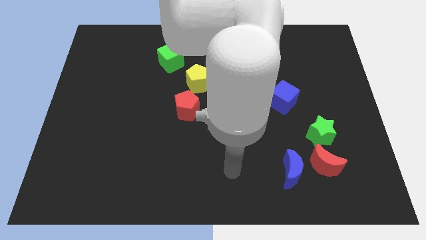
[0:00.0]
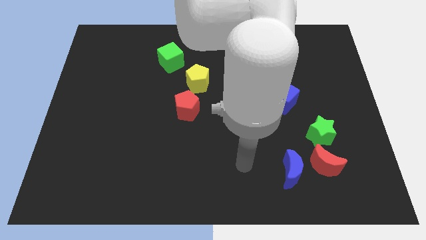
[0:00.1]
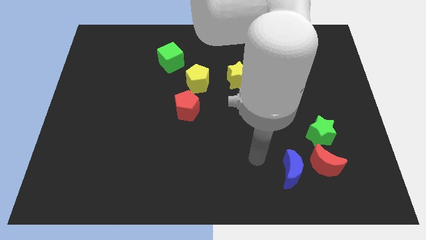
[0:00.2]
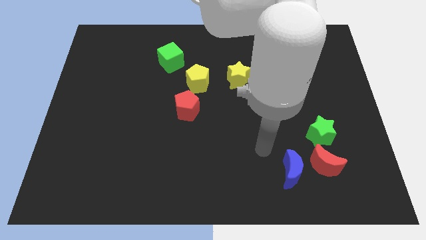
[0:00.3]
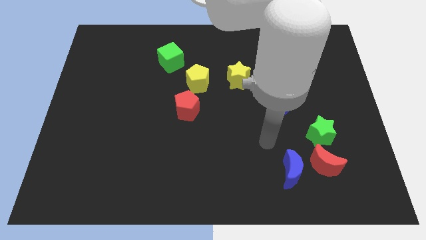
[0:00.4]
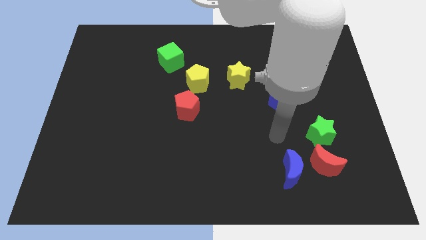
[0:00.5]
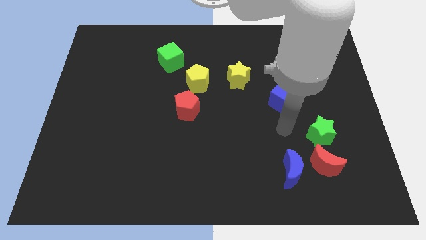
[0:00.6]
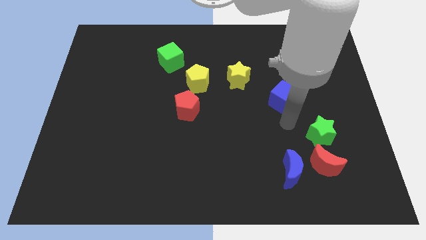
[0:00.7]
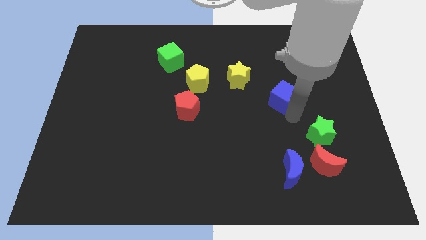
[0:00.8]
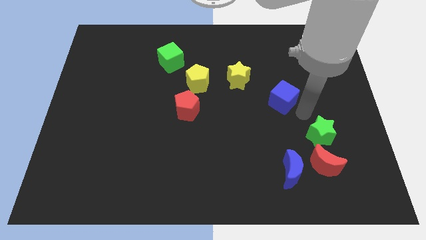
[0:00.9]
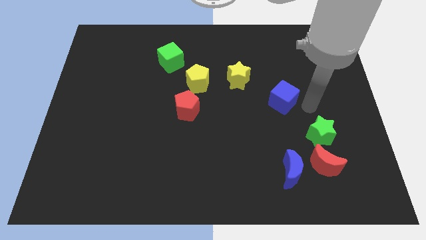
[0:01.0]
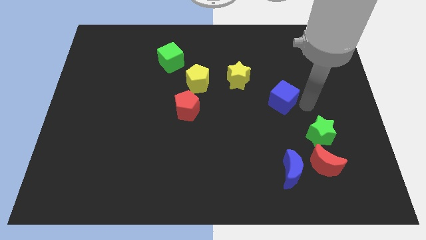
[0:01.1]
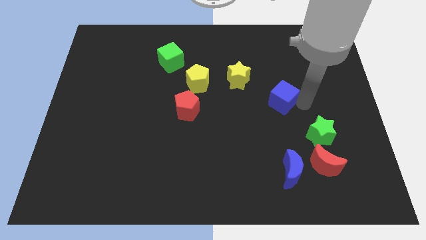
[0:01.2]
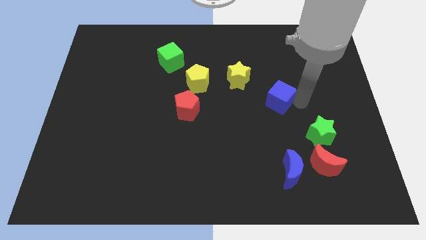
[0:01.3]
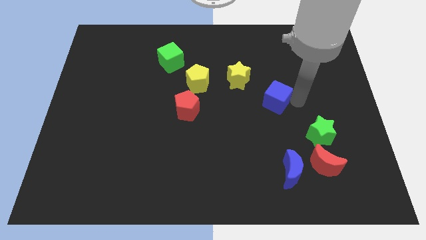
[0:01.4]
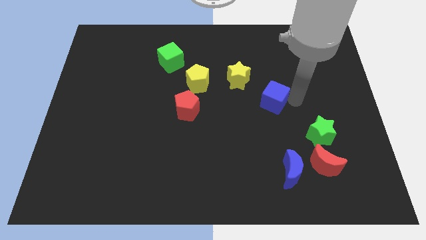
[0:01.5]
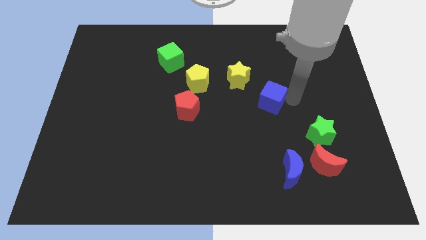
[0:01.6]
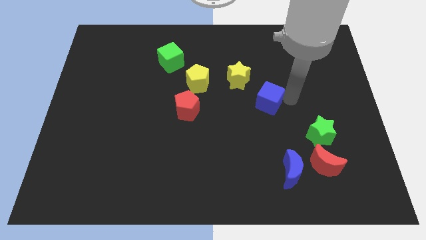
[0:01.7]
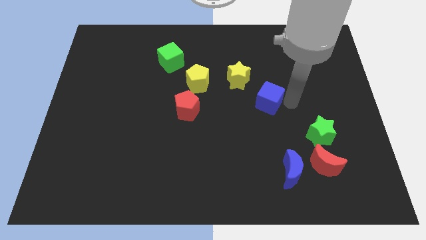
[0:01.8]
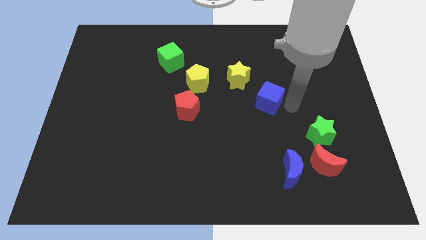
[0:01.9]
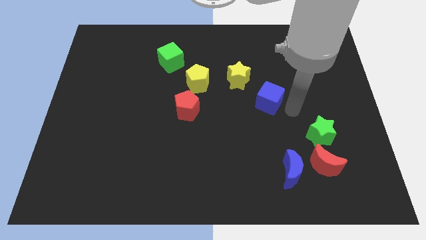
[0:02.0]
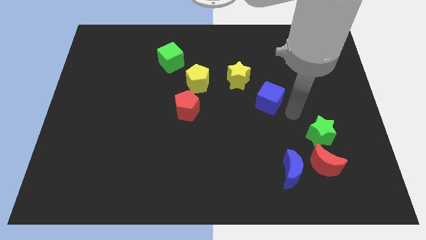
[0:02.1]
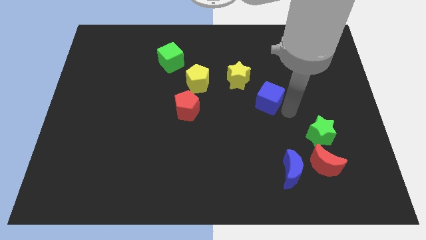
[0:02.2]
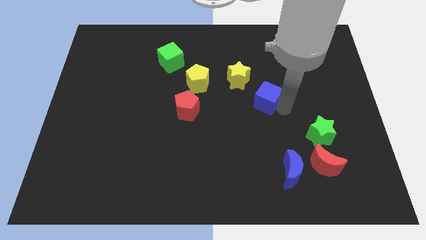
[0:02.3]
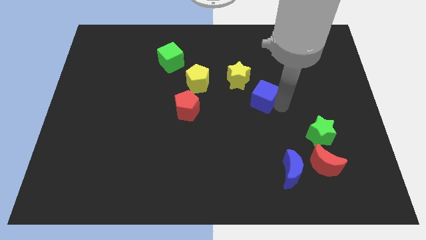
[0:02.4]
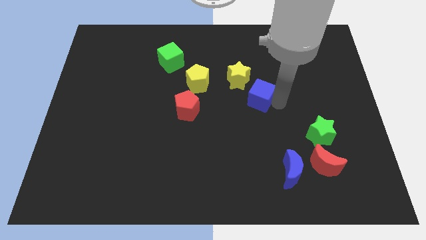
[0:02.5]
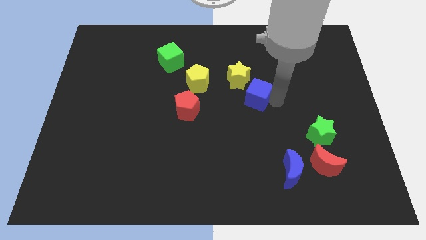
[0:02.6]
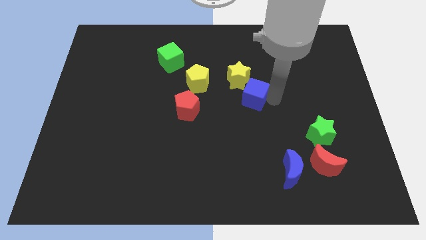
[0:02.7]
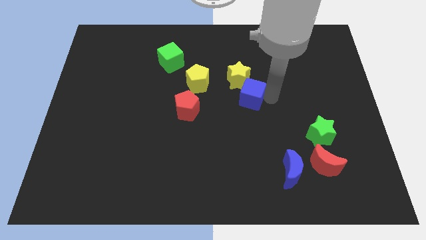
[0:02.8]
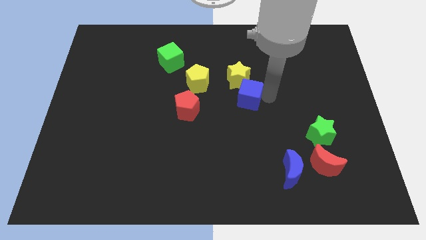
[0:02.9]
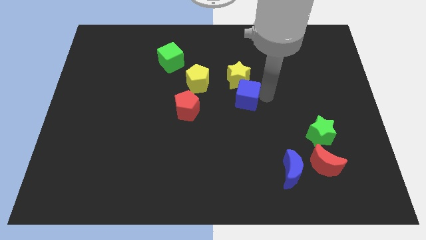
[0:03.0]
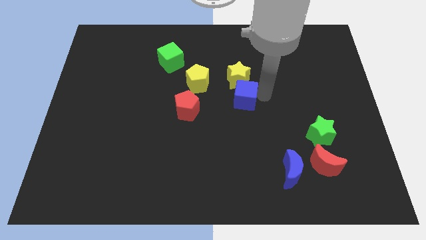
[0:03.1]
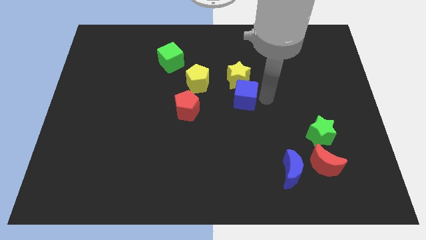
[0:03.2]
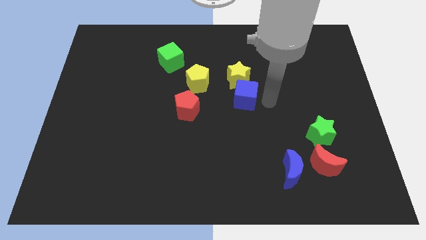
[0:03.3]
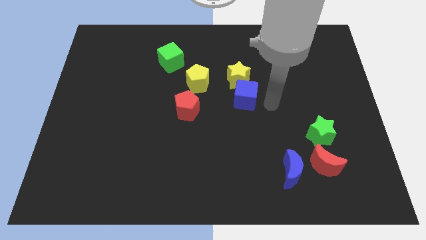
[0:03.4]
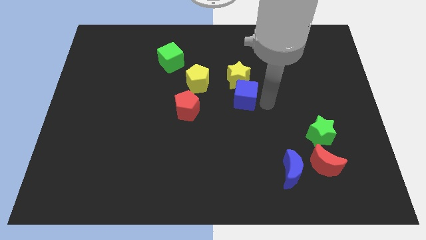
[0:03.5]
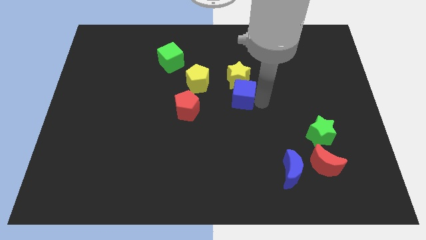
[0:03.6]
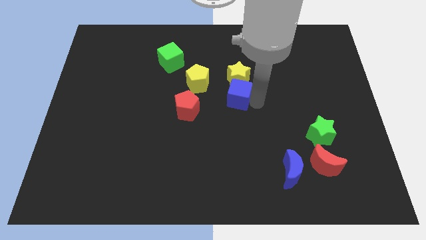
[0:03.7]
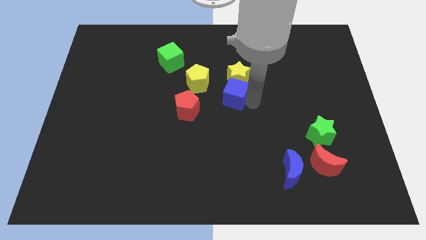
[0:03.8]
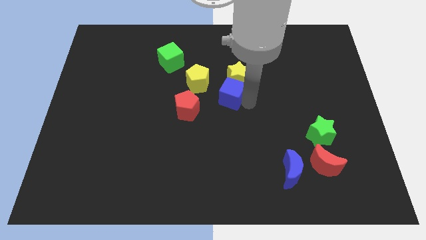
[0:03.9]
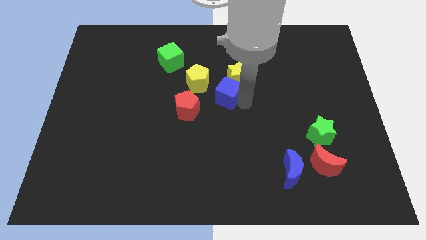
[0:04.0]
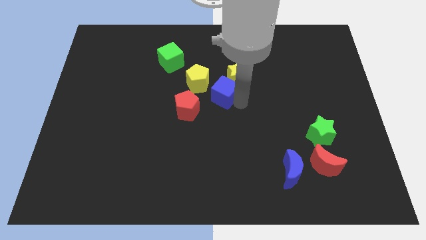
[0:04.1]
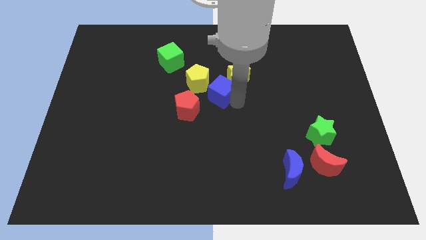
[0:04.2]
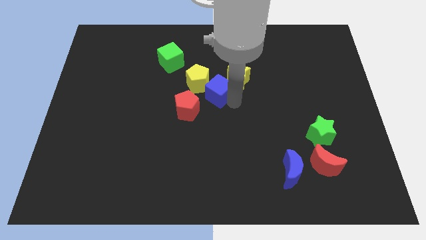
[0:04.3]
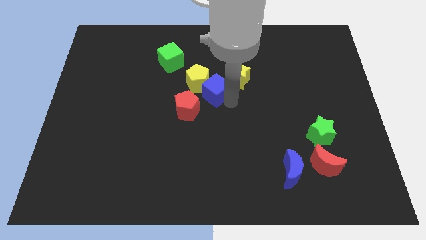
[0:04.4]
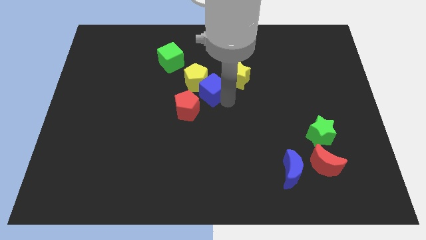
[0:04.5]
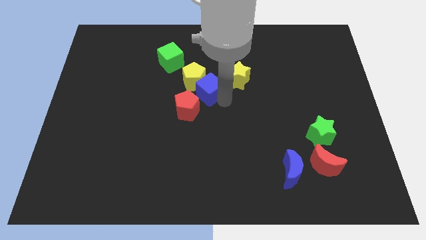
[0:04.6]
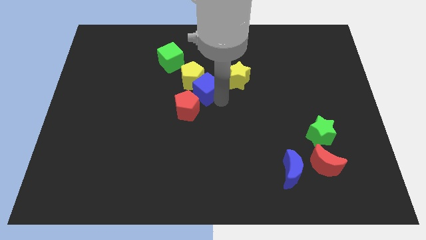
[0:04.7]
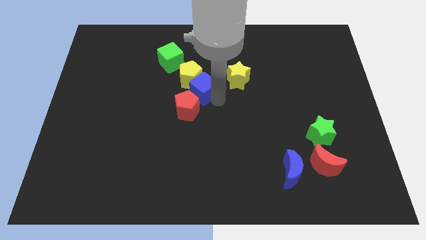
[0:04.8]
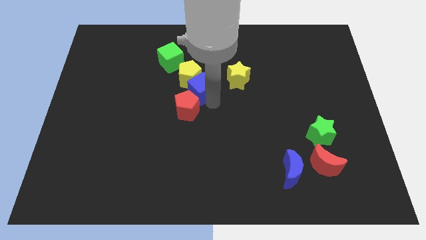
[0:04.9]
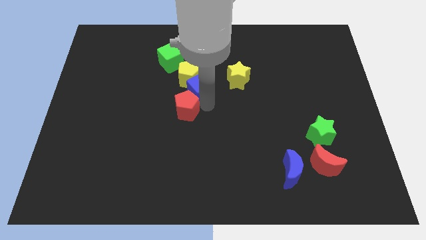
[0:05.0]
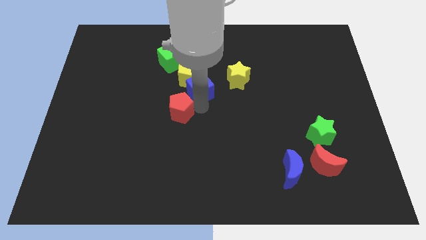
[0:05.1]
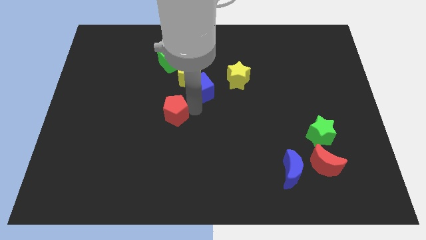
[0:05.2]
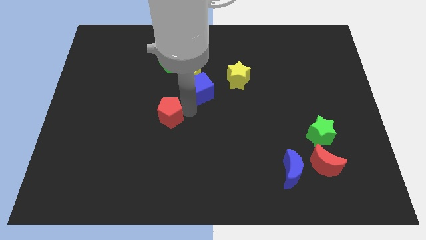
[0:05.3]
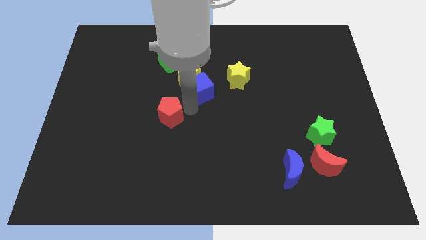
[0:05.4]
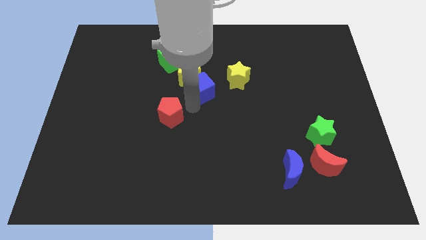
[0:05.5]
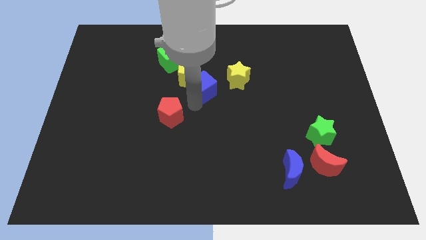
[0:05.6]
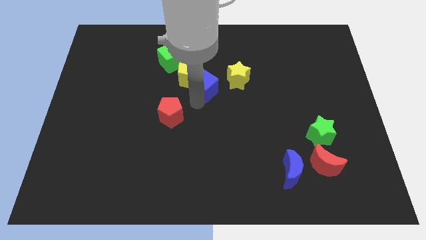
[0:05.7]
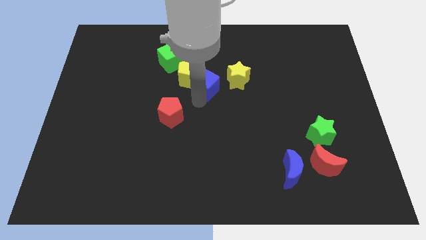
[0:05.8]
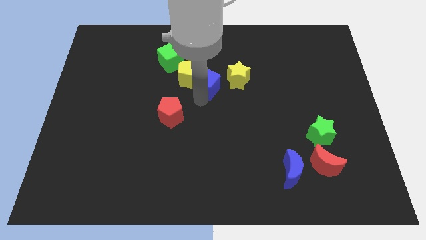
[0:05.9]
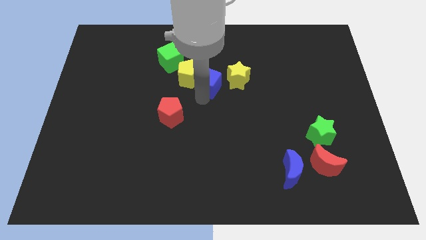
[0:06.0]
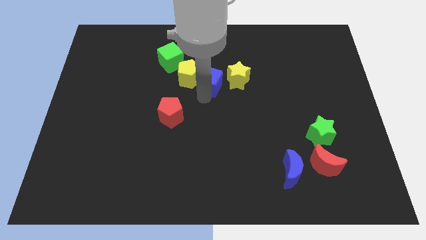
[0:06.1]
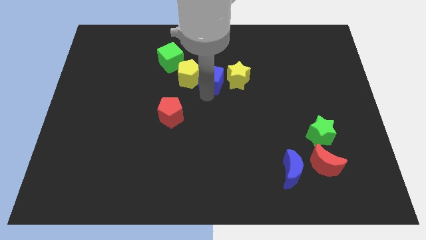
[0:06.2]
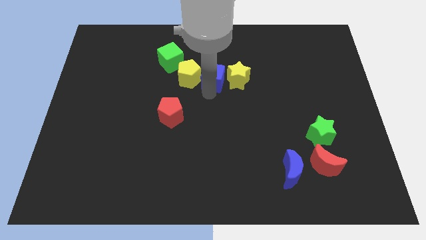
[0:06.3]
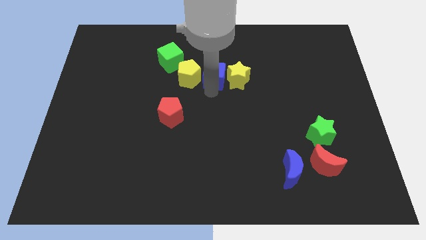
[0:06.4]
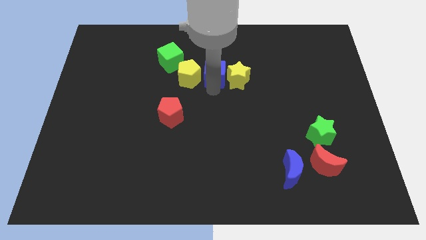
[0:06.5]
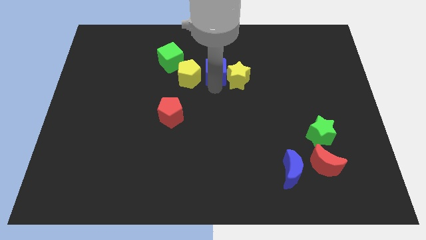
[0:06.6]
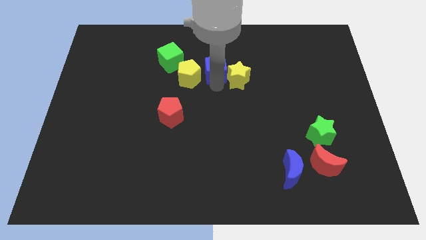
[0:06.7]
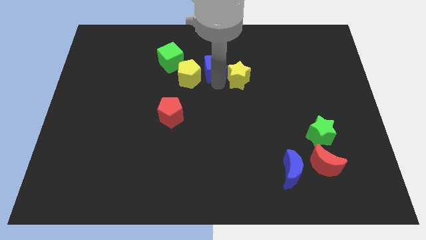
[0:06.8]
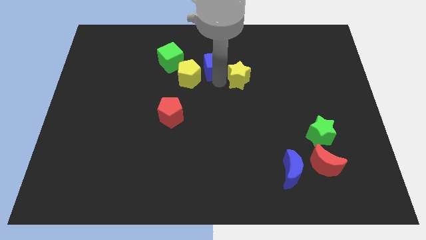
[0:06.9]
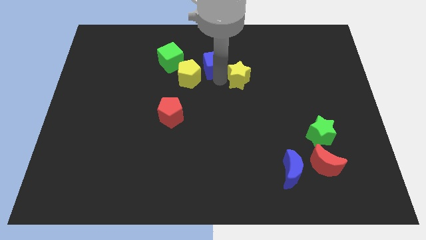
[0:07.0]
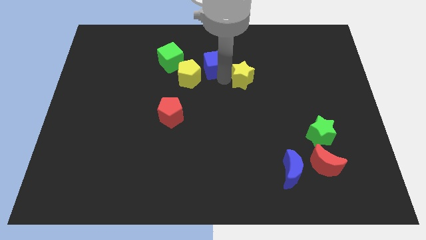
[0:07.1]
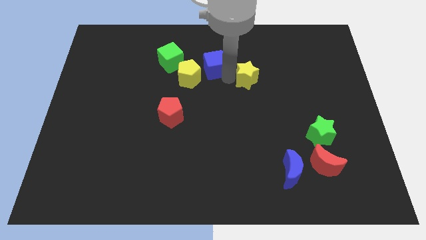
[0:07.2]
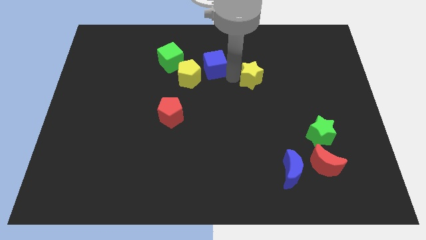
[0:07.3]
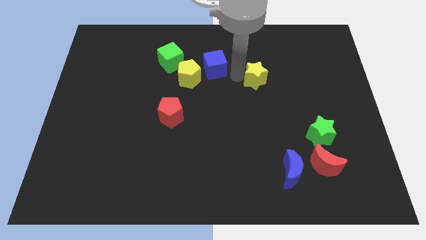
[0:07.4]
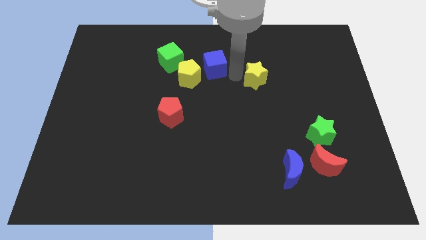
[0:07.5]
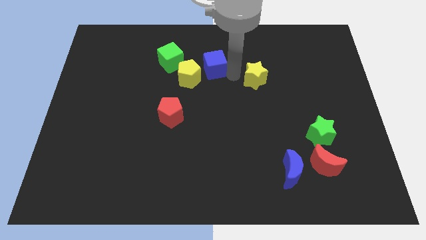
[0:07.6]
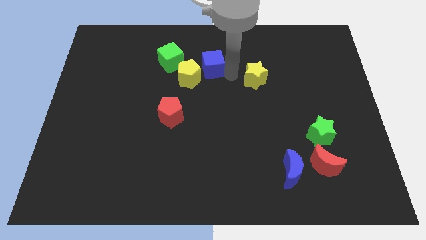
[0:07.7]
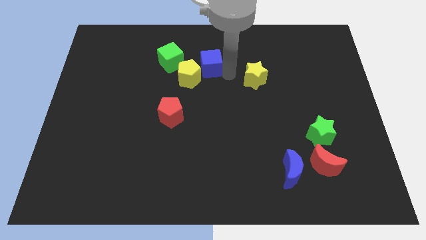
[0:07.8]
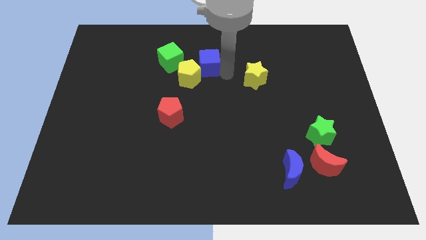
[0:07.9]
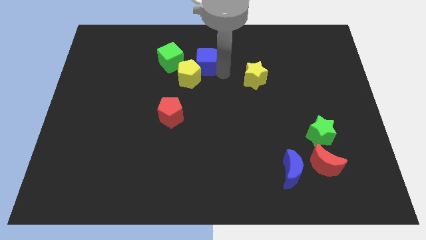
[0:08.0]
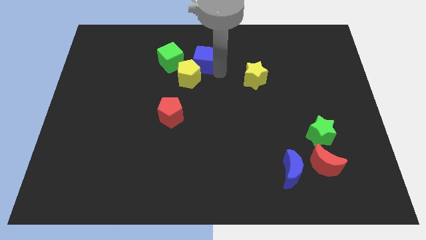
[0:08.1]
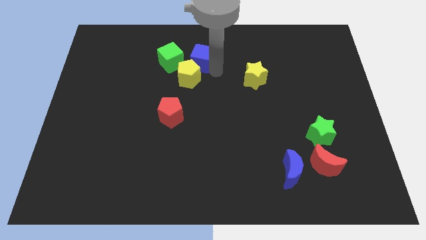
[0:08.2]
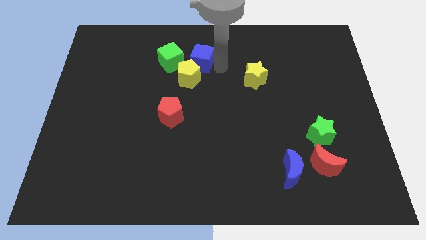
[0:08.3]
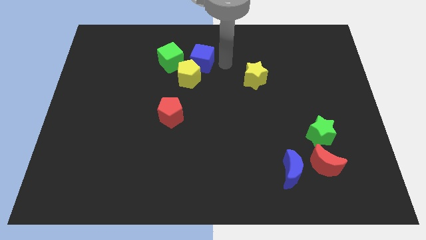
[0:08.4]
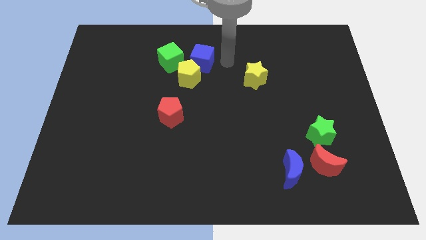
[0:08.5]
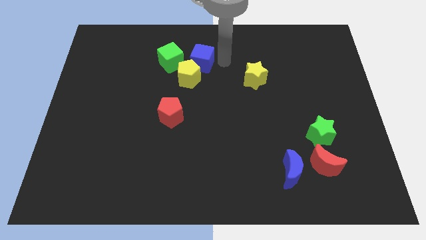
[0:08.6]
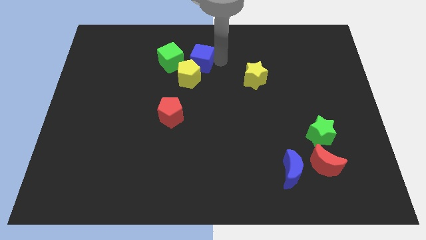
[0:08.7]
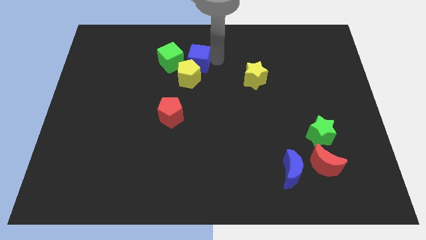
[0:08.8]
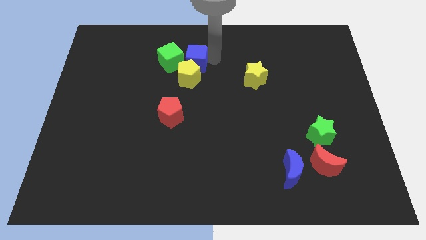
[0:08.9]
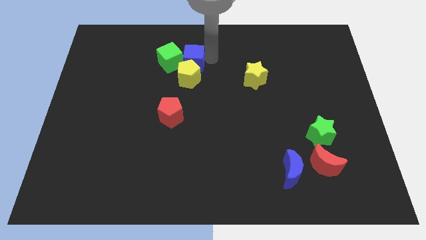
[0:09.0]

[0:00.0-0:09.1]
push the blue cube towards the green cube
